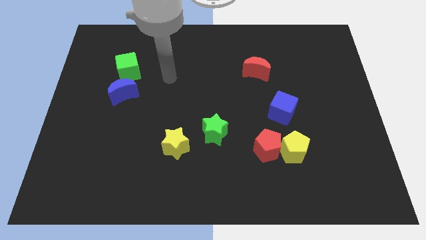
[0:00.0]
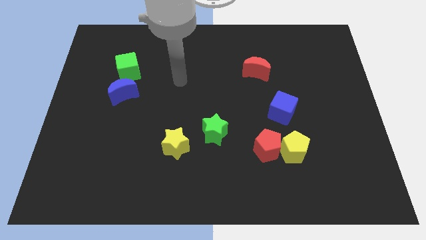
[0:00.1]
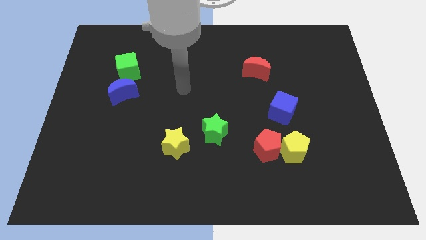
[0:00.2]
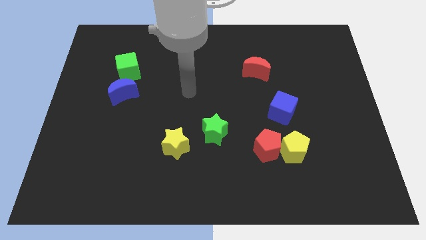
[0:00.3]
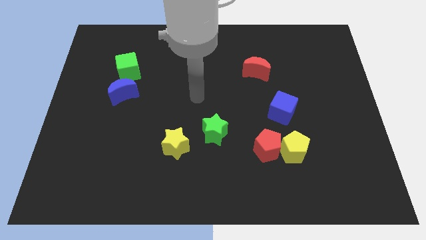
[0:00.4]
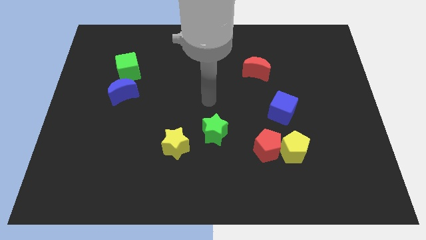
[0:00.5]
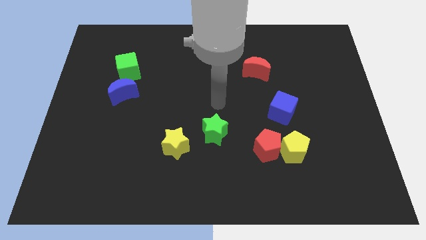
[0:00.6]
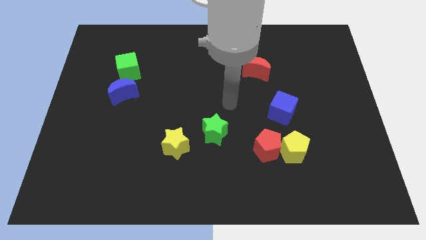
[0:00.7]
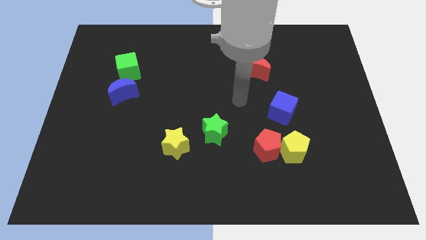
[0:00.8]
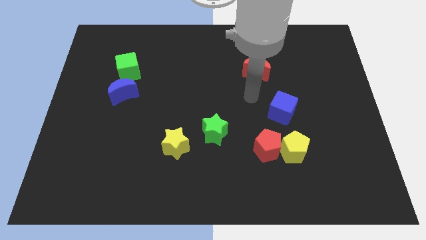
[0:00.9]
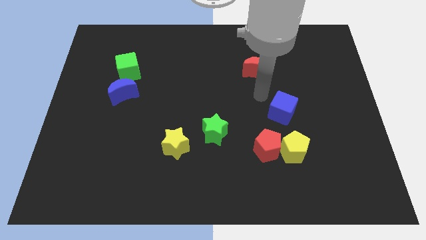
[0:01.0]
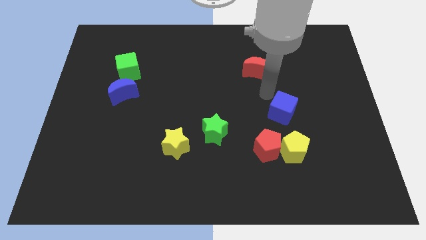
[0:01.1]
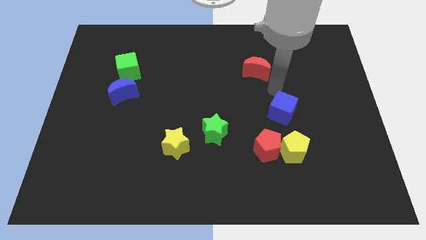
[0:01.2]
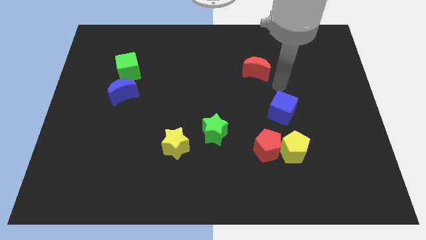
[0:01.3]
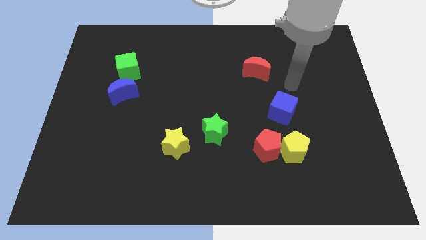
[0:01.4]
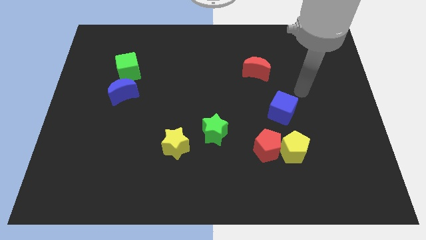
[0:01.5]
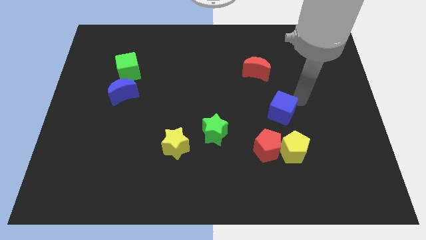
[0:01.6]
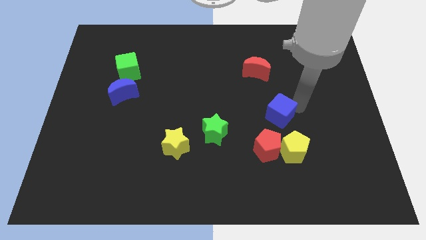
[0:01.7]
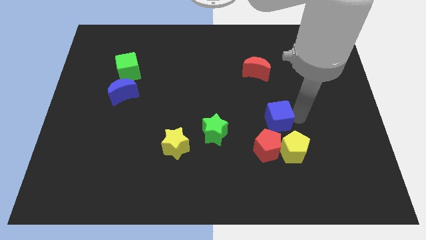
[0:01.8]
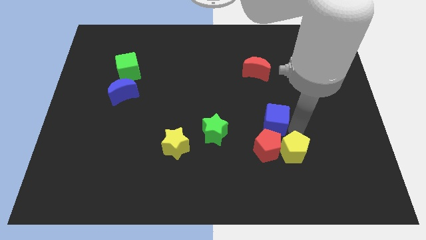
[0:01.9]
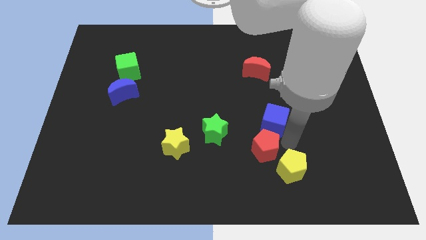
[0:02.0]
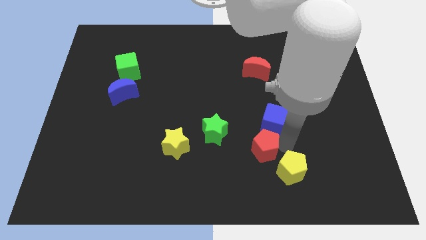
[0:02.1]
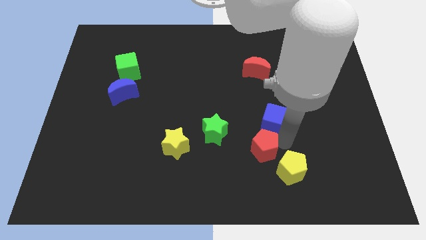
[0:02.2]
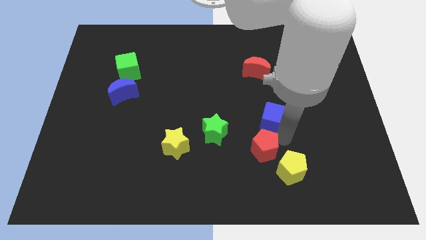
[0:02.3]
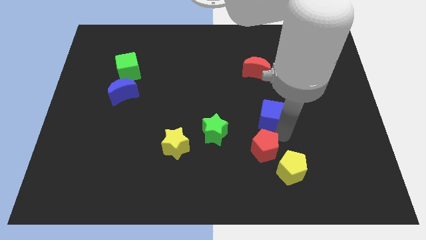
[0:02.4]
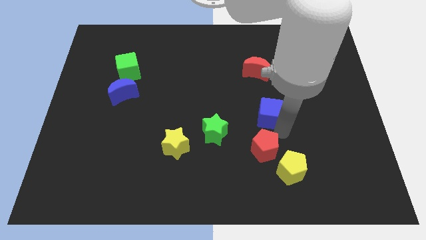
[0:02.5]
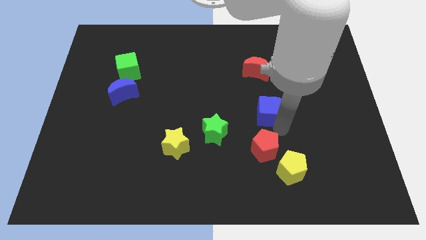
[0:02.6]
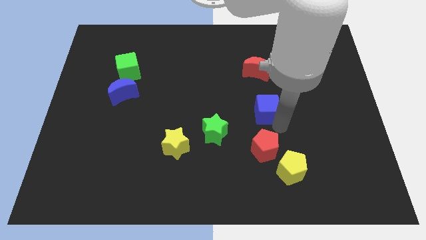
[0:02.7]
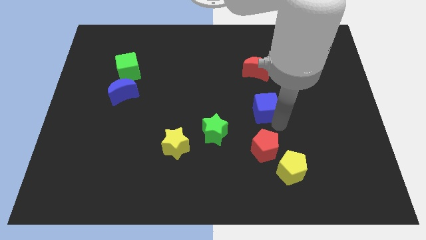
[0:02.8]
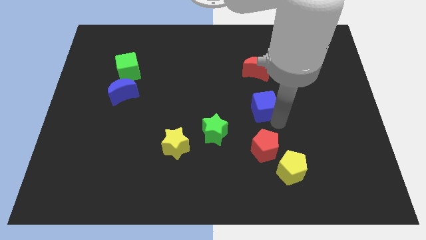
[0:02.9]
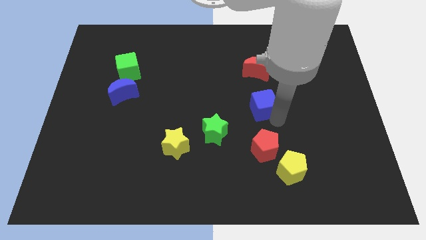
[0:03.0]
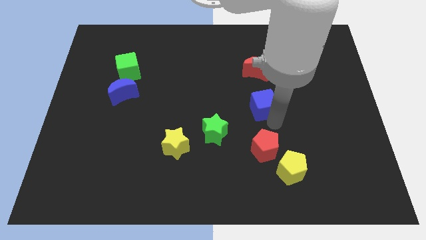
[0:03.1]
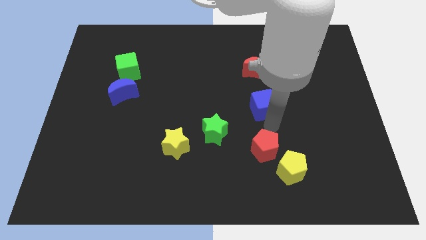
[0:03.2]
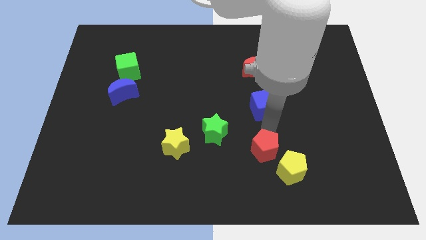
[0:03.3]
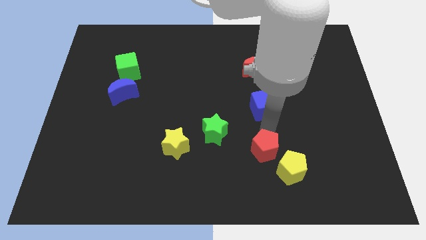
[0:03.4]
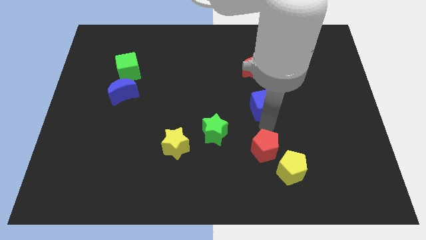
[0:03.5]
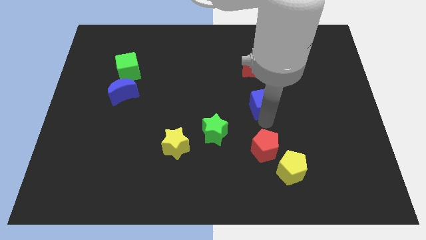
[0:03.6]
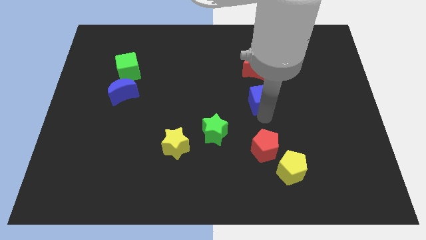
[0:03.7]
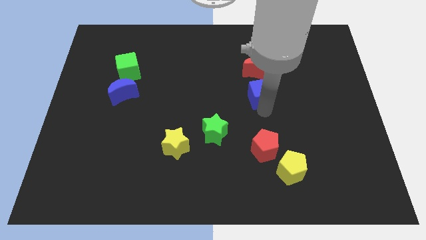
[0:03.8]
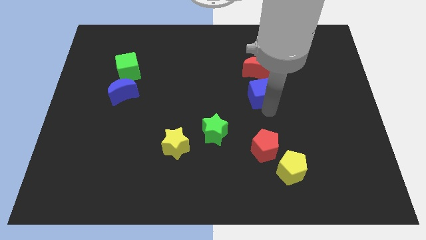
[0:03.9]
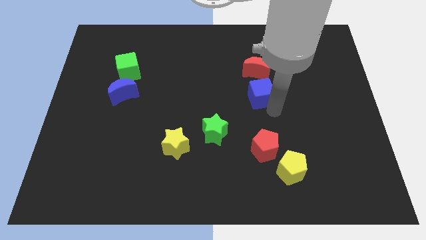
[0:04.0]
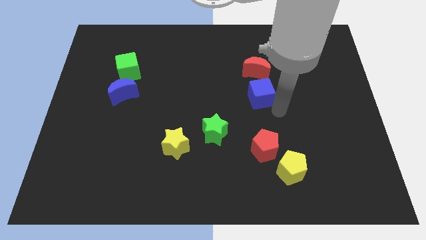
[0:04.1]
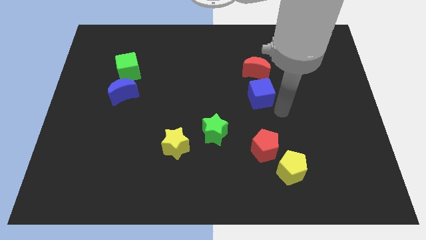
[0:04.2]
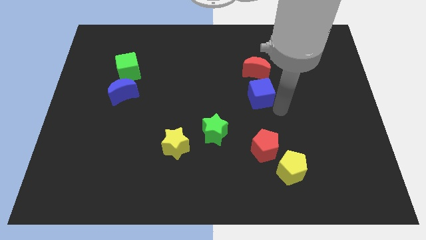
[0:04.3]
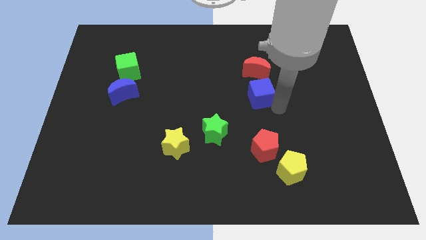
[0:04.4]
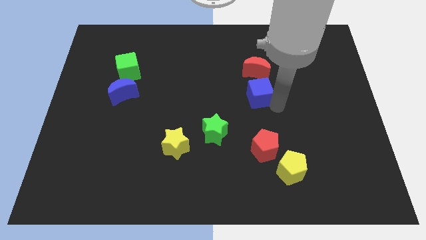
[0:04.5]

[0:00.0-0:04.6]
slightly slide the blue cube diagonally up and left

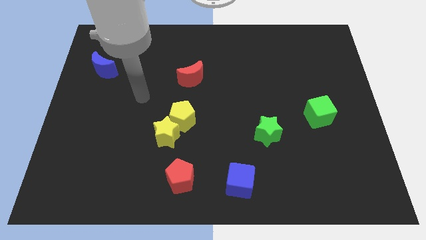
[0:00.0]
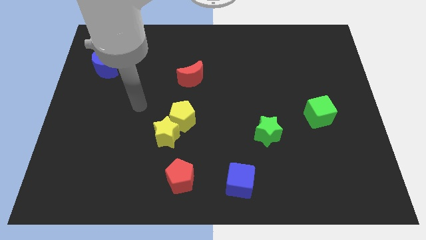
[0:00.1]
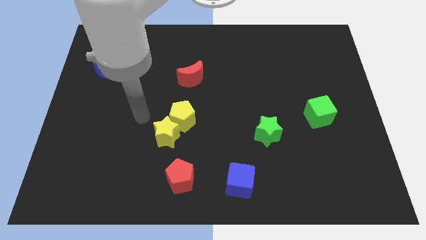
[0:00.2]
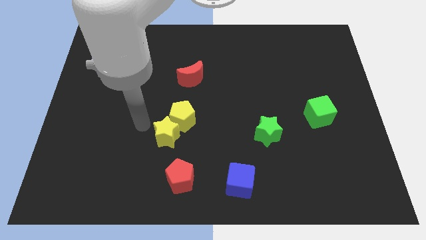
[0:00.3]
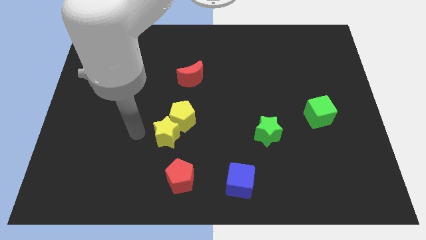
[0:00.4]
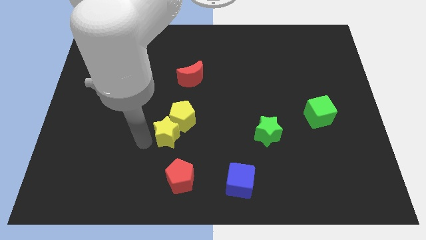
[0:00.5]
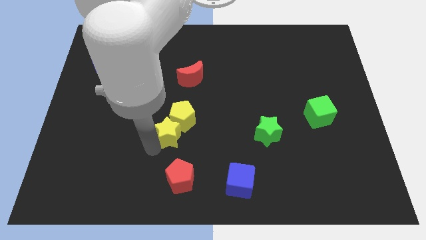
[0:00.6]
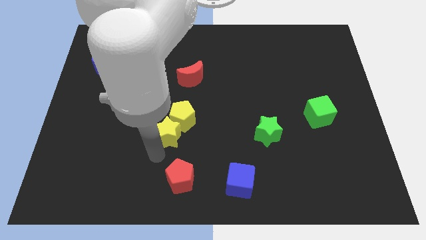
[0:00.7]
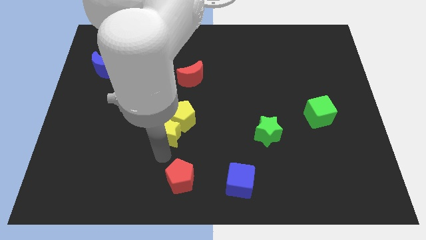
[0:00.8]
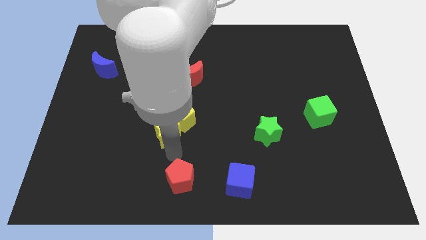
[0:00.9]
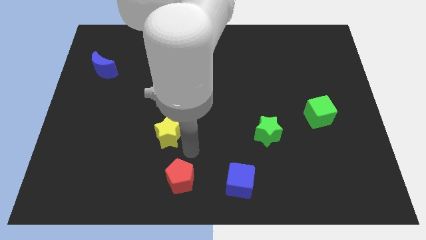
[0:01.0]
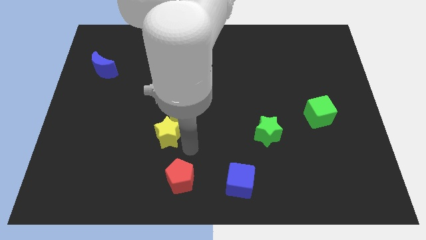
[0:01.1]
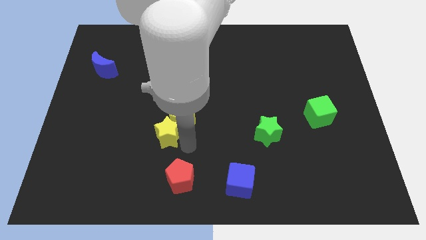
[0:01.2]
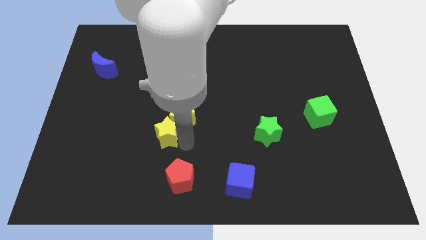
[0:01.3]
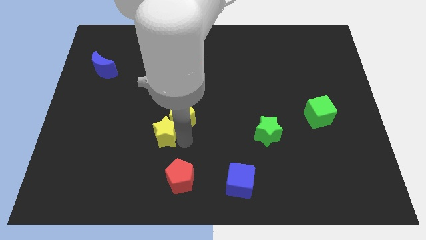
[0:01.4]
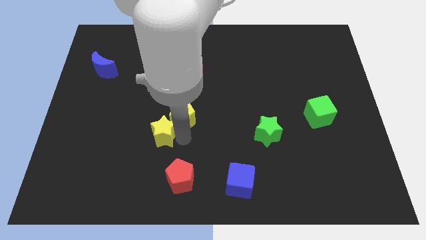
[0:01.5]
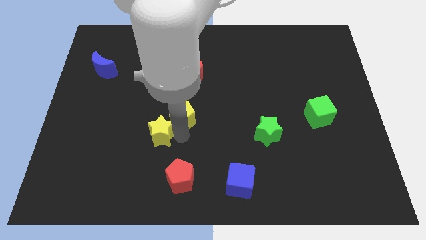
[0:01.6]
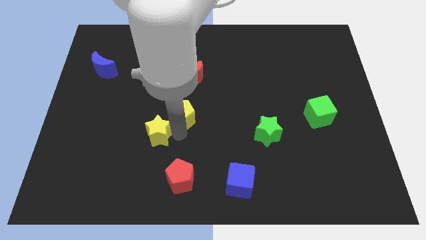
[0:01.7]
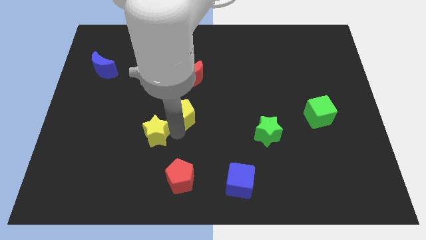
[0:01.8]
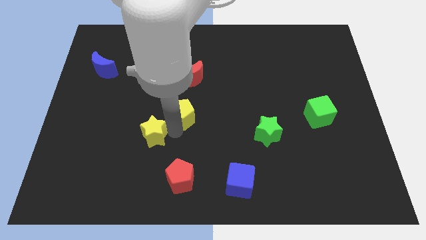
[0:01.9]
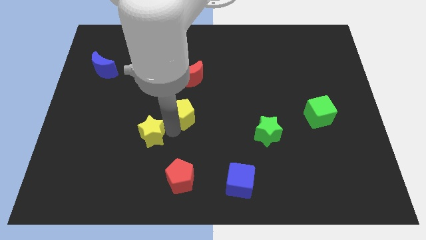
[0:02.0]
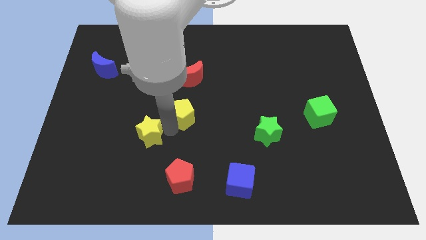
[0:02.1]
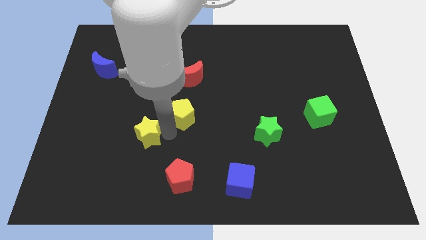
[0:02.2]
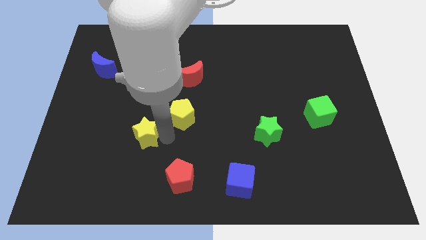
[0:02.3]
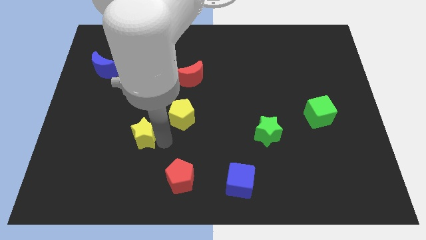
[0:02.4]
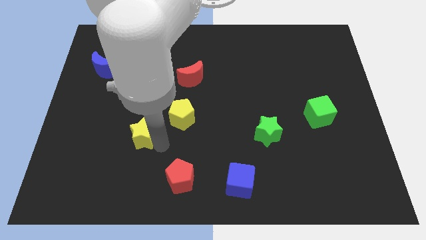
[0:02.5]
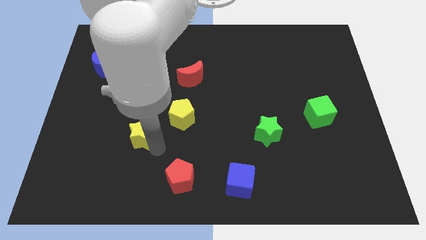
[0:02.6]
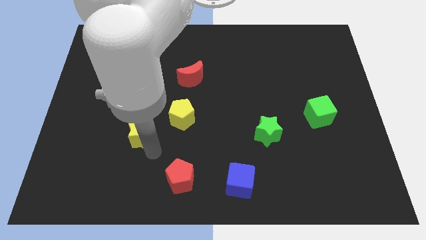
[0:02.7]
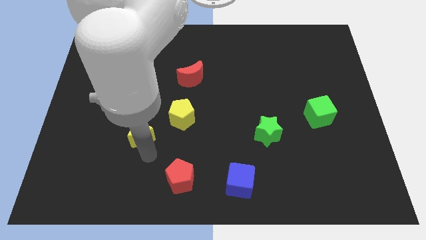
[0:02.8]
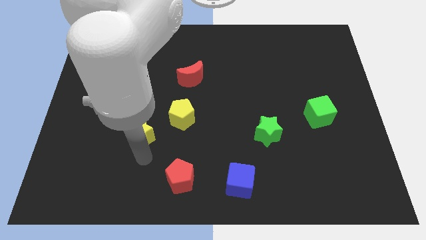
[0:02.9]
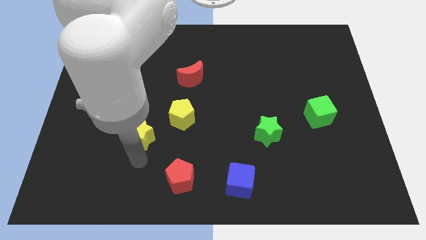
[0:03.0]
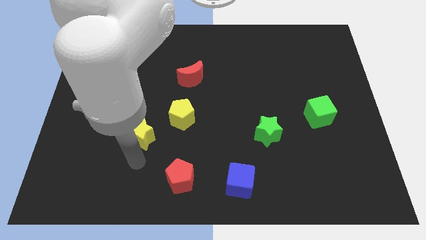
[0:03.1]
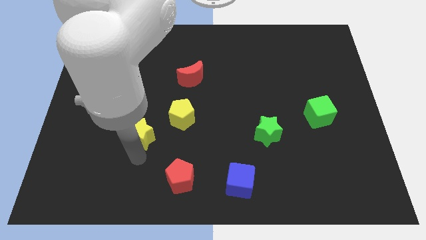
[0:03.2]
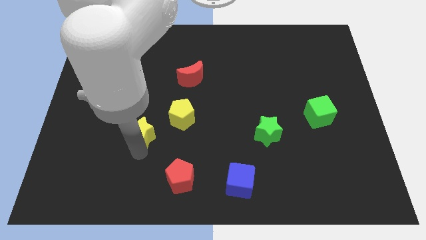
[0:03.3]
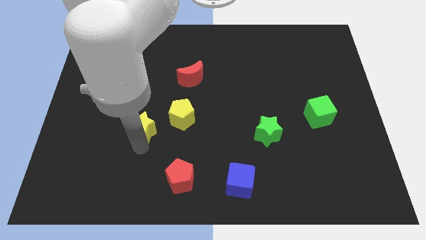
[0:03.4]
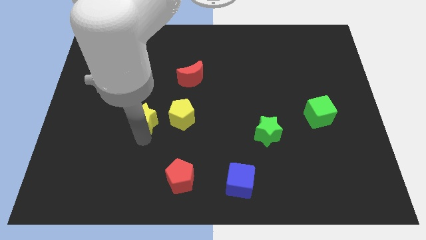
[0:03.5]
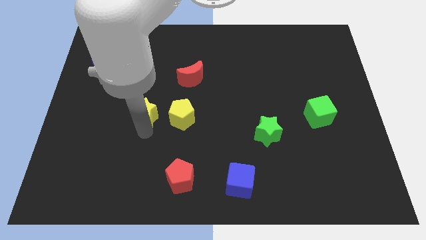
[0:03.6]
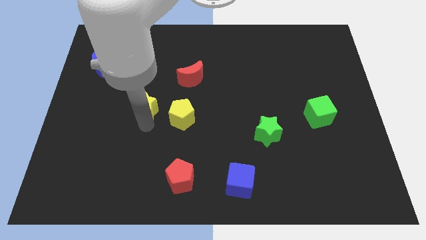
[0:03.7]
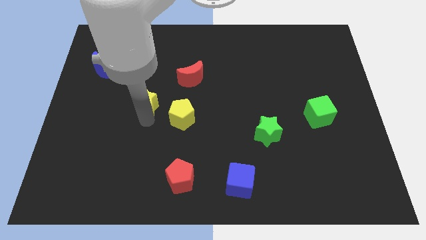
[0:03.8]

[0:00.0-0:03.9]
slide the yellow star somewhat up
